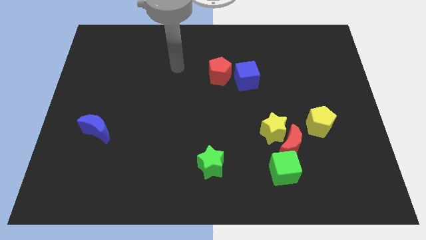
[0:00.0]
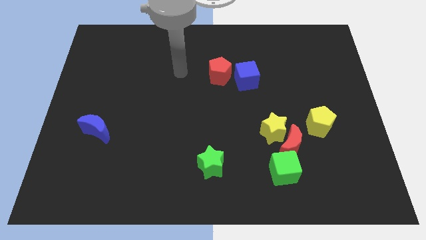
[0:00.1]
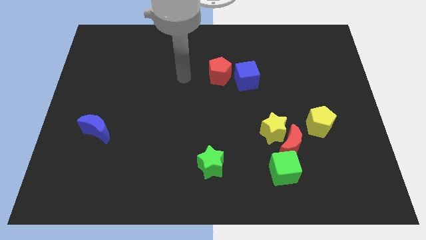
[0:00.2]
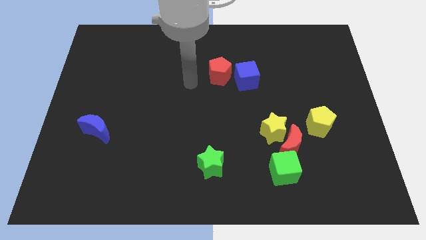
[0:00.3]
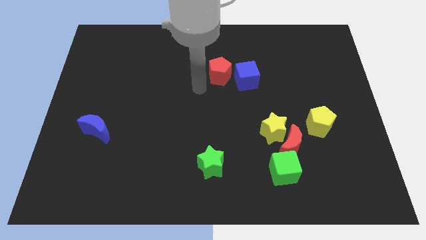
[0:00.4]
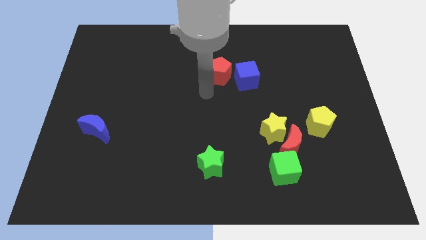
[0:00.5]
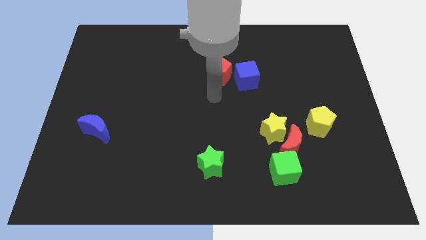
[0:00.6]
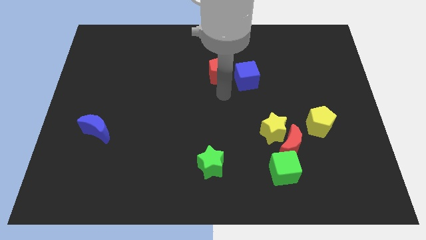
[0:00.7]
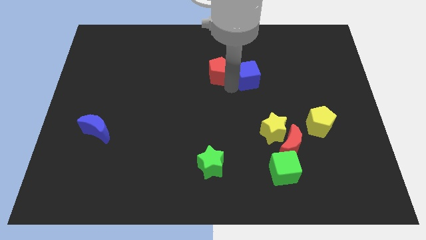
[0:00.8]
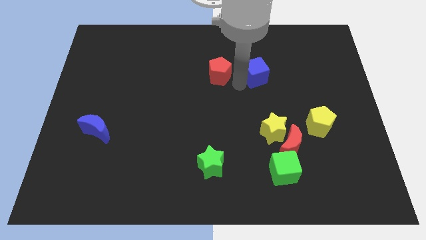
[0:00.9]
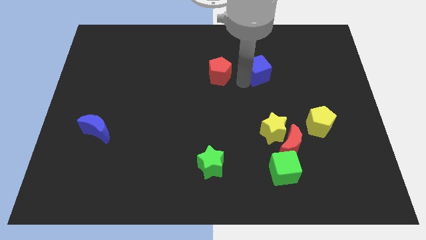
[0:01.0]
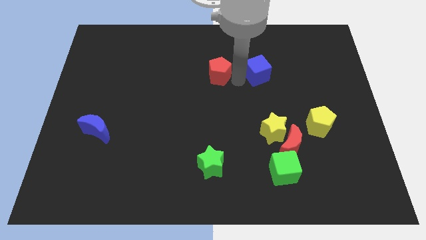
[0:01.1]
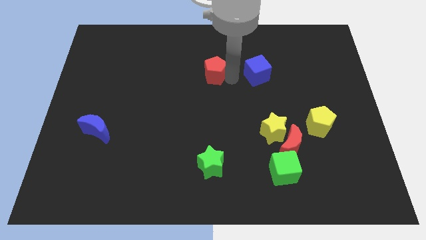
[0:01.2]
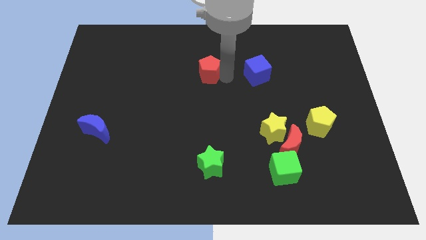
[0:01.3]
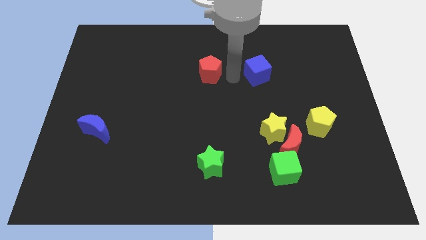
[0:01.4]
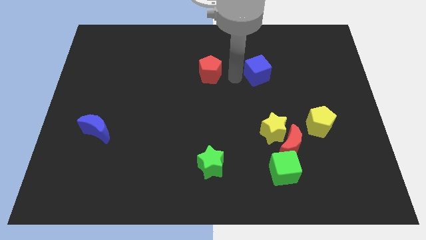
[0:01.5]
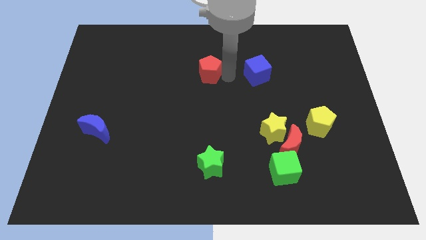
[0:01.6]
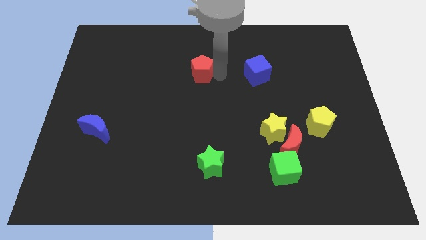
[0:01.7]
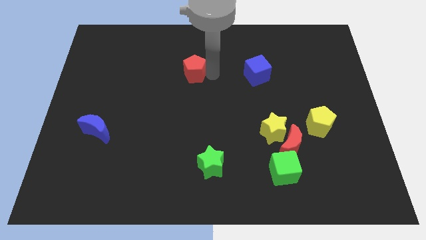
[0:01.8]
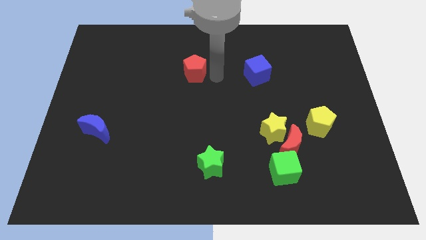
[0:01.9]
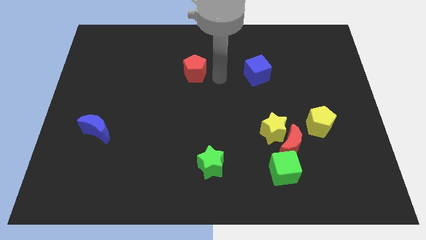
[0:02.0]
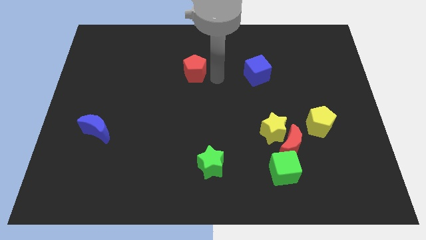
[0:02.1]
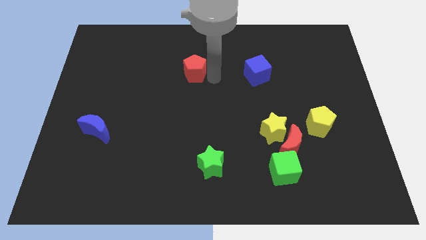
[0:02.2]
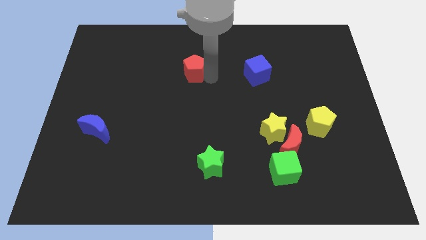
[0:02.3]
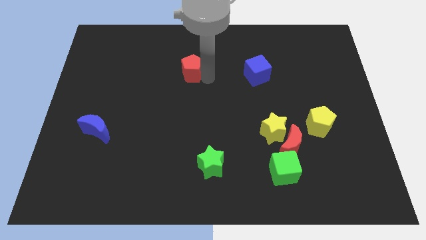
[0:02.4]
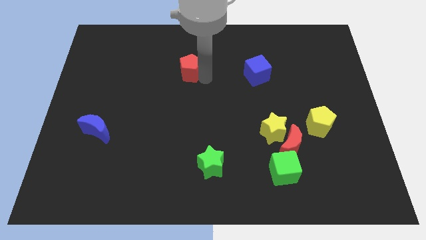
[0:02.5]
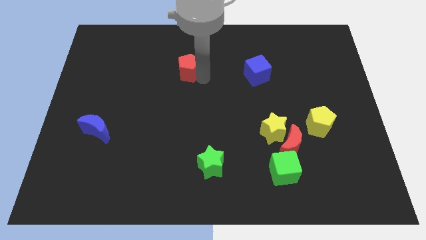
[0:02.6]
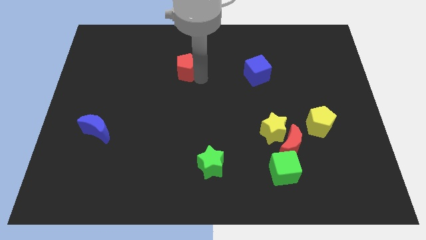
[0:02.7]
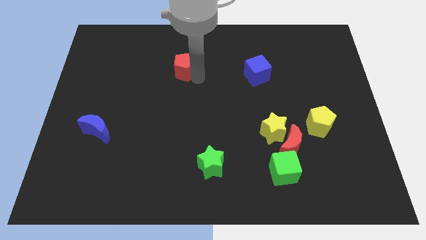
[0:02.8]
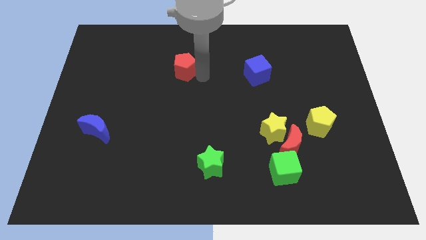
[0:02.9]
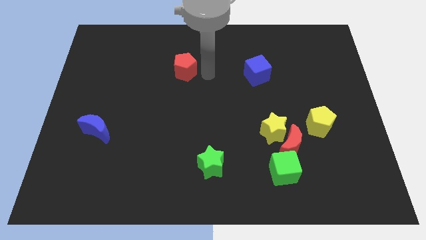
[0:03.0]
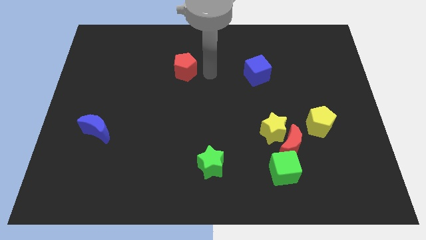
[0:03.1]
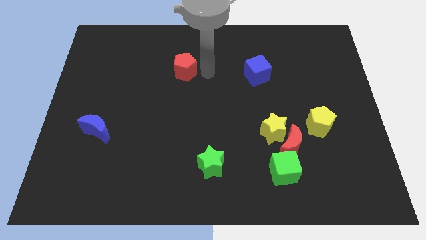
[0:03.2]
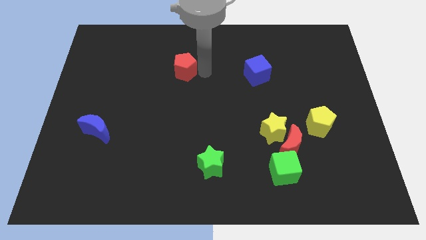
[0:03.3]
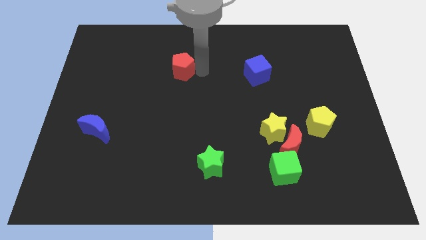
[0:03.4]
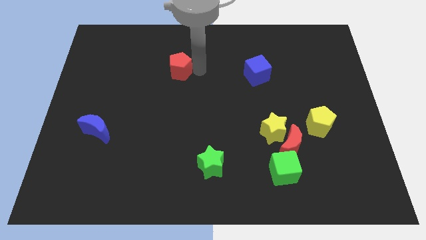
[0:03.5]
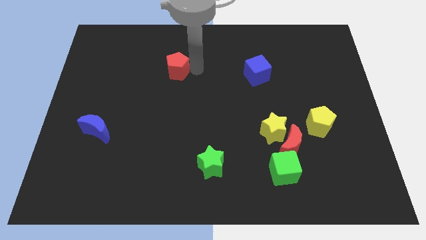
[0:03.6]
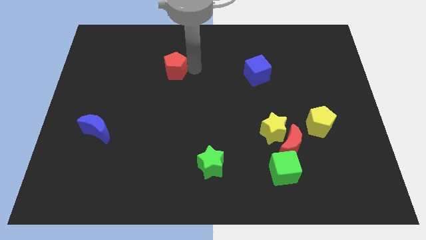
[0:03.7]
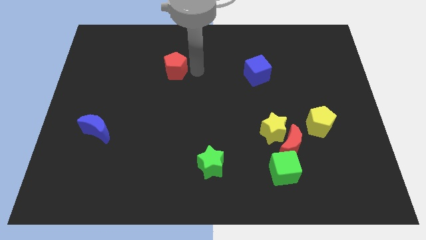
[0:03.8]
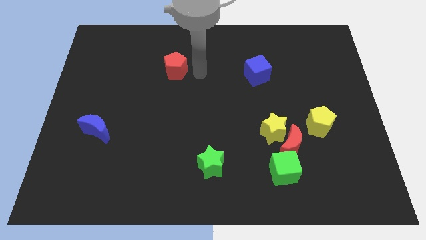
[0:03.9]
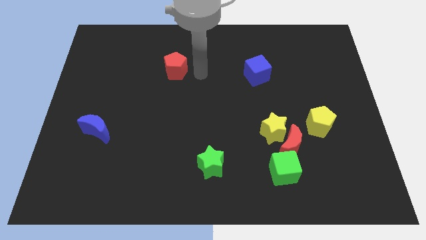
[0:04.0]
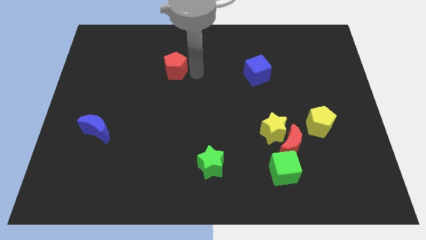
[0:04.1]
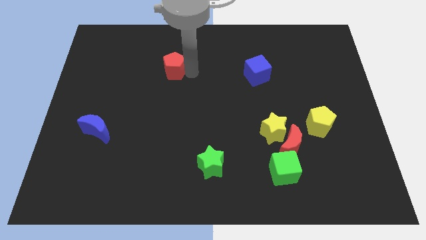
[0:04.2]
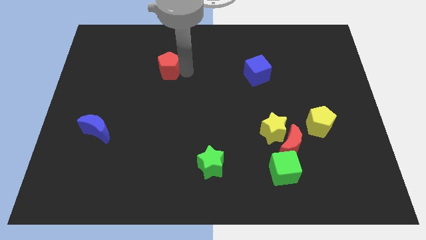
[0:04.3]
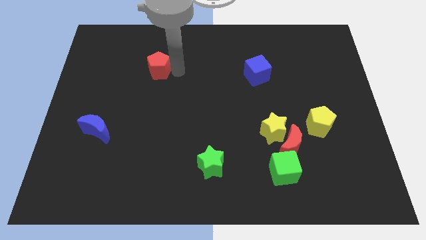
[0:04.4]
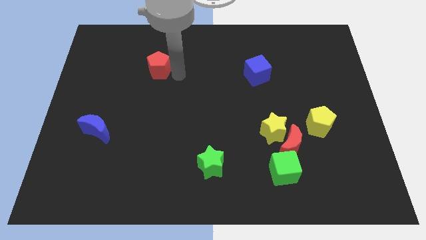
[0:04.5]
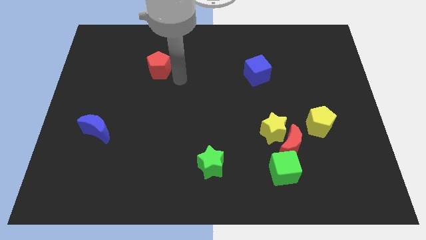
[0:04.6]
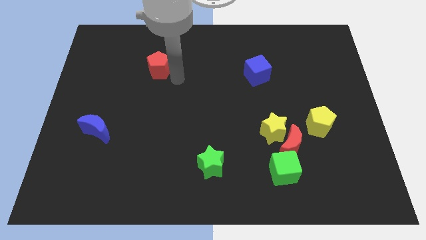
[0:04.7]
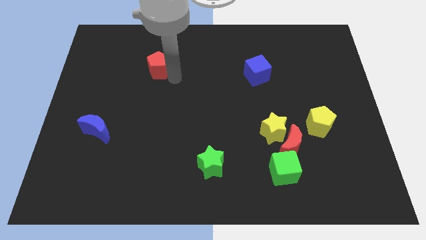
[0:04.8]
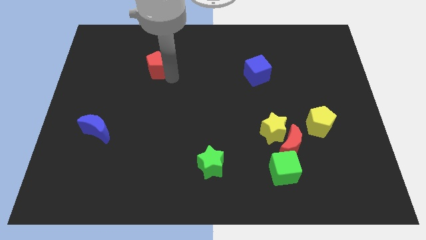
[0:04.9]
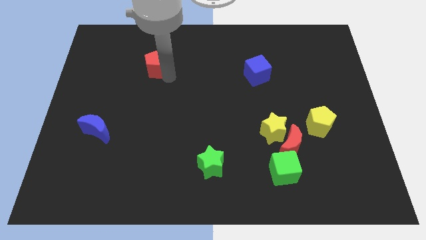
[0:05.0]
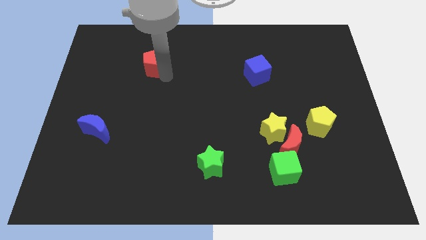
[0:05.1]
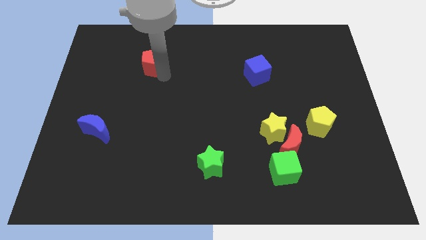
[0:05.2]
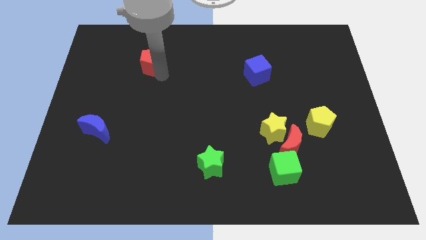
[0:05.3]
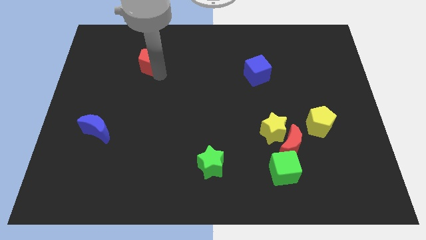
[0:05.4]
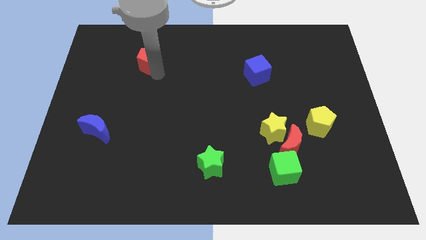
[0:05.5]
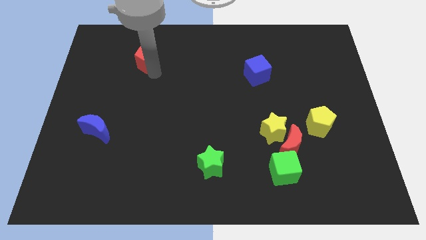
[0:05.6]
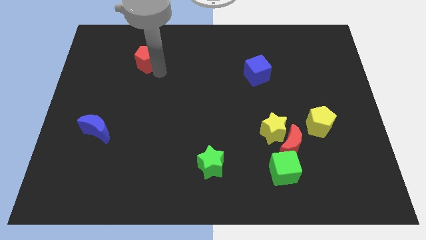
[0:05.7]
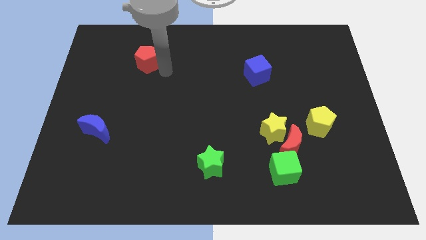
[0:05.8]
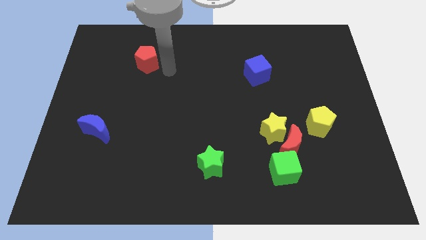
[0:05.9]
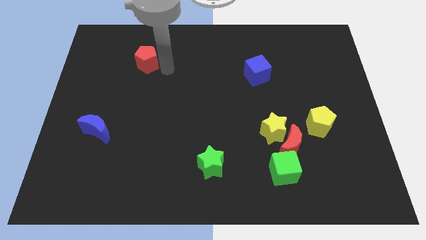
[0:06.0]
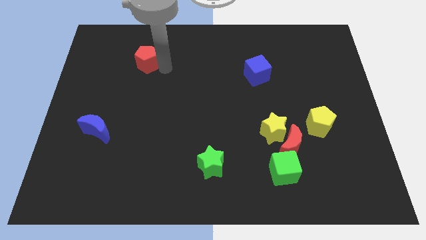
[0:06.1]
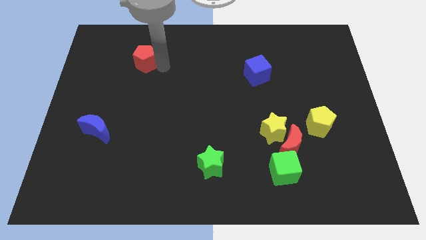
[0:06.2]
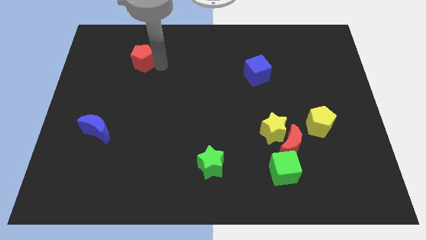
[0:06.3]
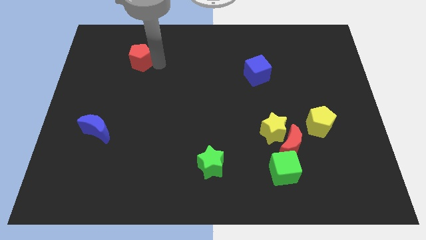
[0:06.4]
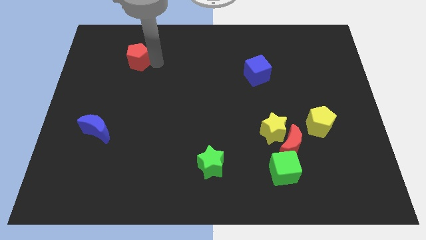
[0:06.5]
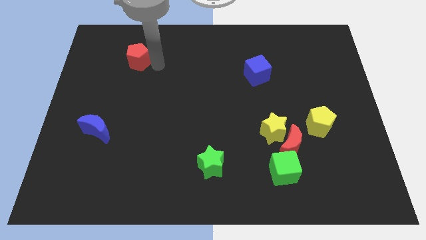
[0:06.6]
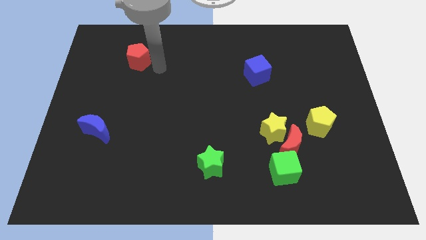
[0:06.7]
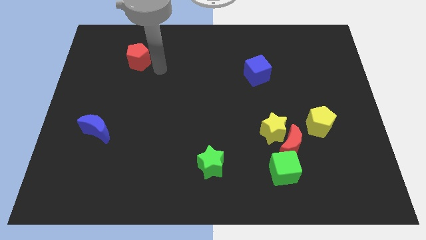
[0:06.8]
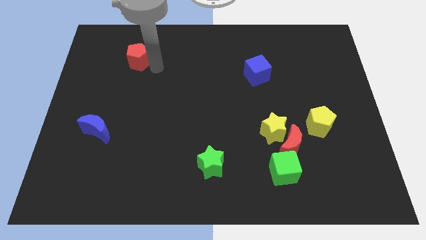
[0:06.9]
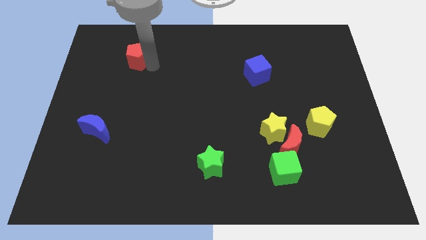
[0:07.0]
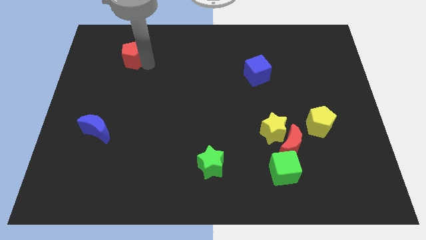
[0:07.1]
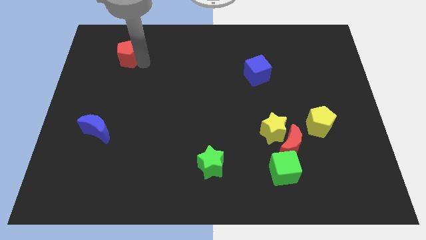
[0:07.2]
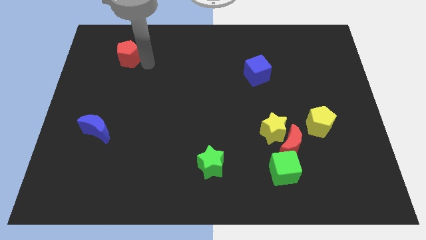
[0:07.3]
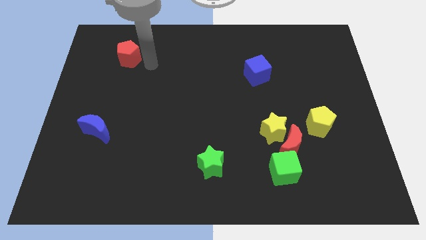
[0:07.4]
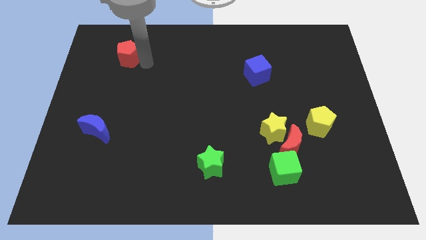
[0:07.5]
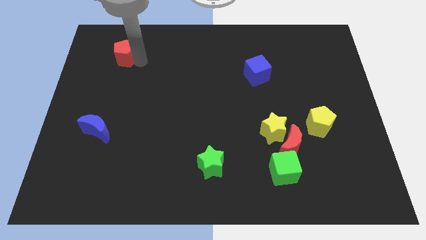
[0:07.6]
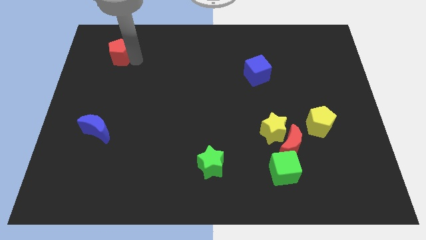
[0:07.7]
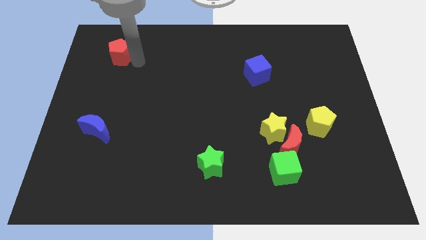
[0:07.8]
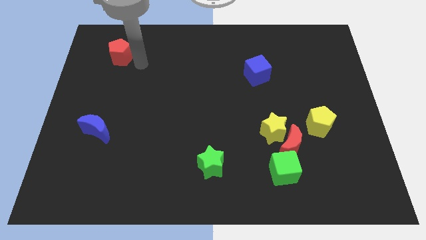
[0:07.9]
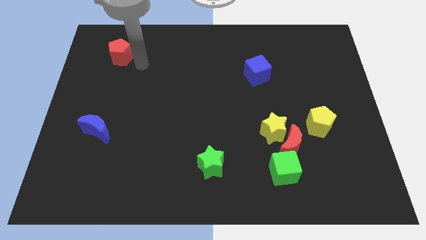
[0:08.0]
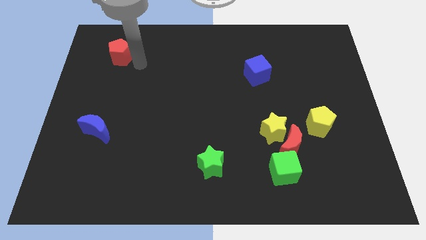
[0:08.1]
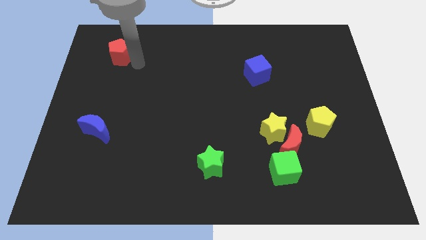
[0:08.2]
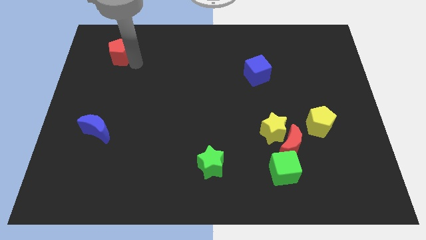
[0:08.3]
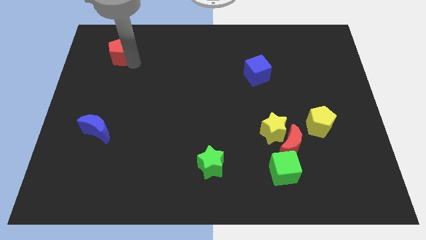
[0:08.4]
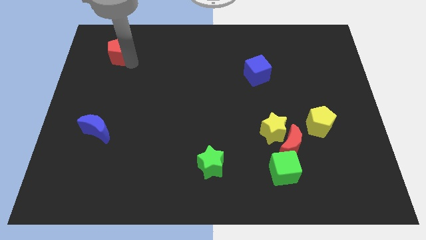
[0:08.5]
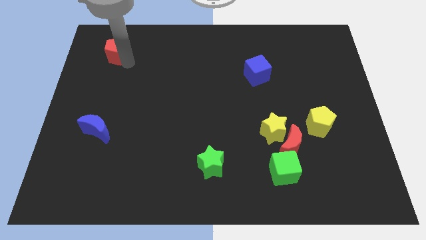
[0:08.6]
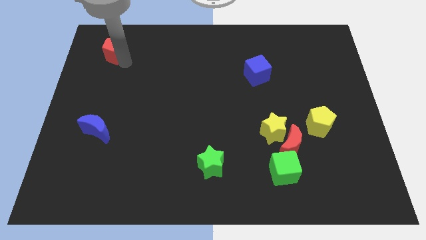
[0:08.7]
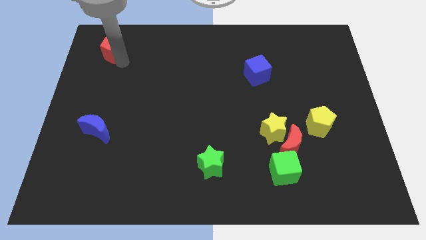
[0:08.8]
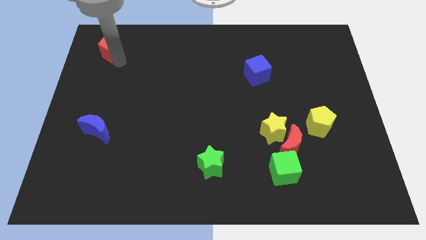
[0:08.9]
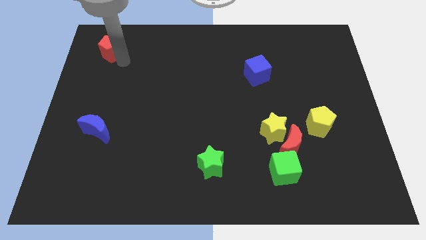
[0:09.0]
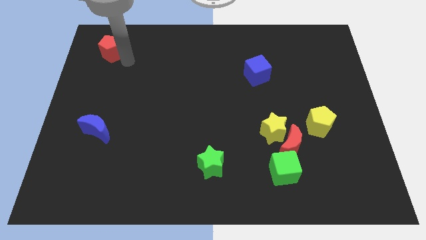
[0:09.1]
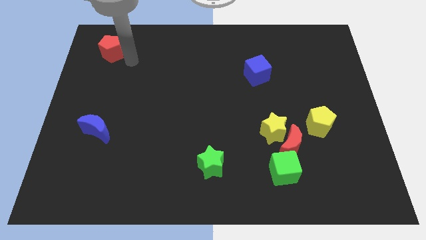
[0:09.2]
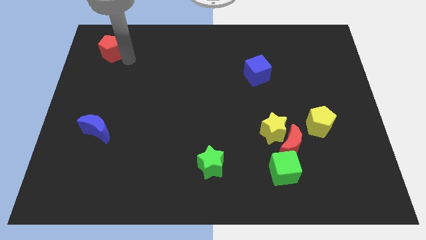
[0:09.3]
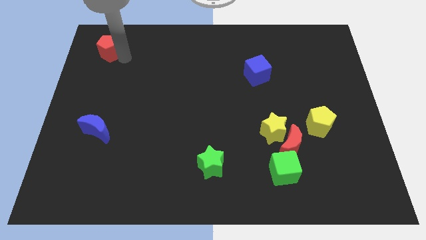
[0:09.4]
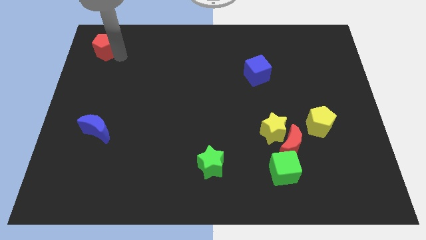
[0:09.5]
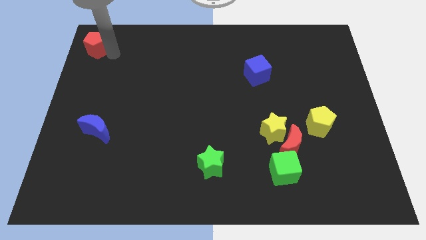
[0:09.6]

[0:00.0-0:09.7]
move the red pentagon to the top left
